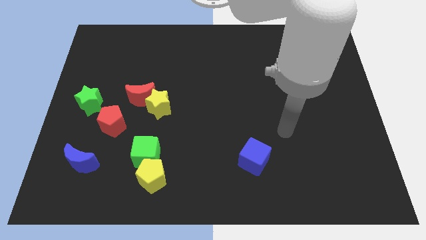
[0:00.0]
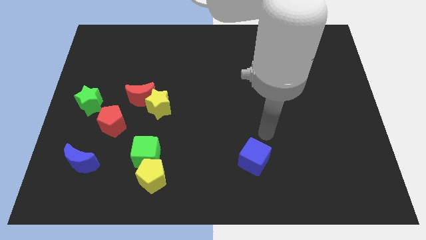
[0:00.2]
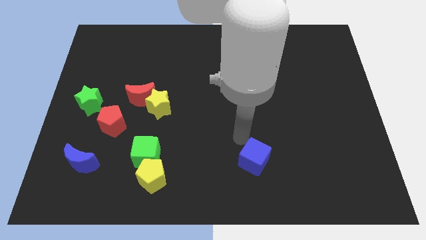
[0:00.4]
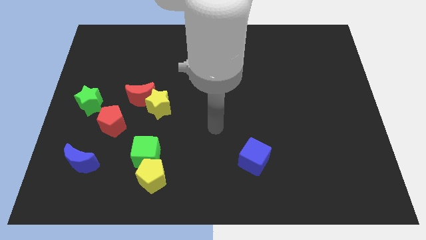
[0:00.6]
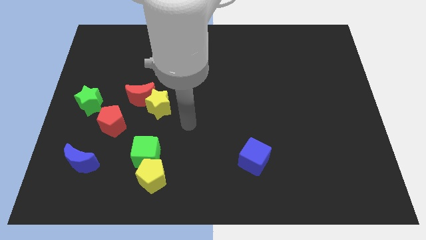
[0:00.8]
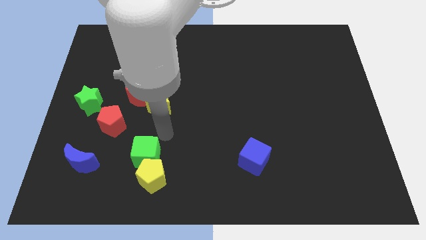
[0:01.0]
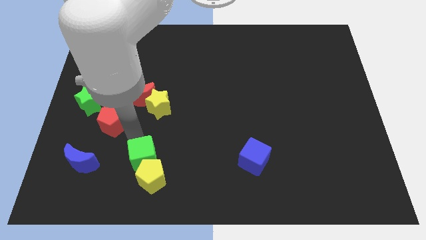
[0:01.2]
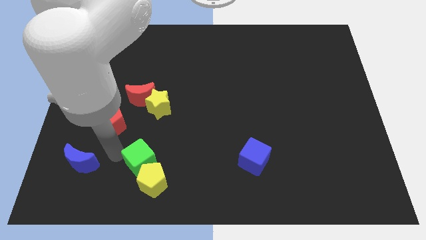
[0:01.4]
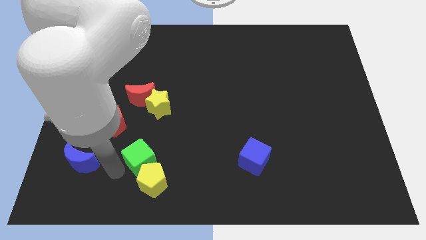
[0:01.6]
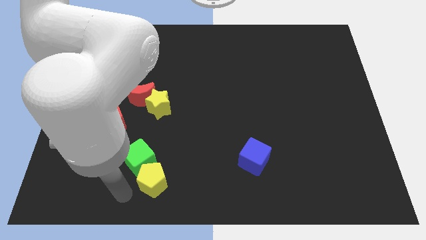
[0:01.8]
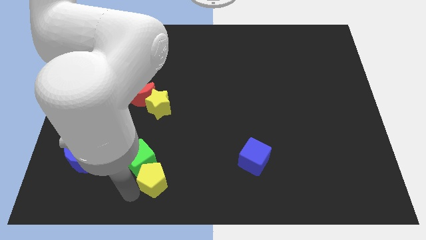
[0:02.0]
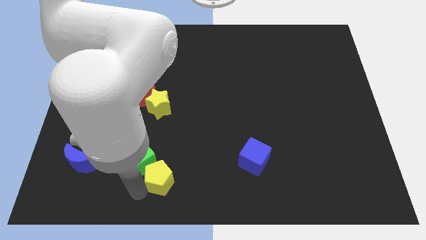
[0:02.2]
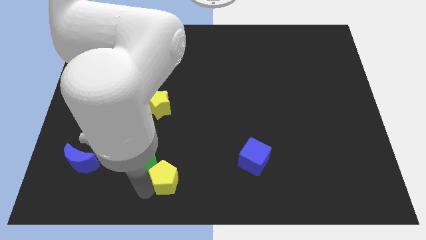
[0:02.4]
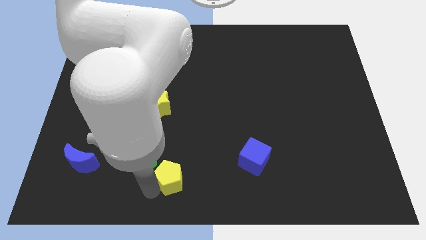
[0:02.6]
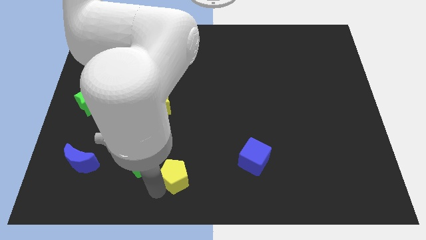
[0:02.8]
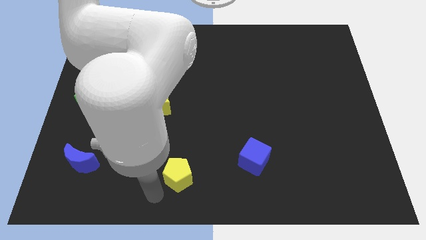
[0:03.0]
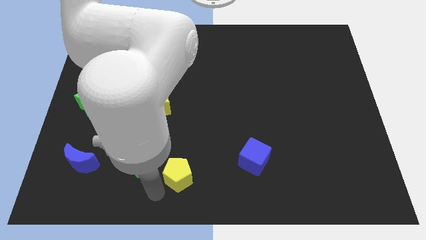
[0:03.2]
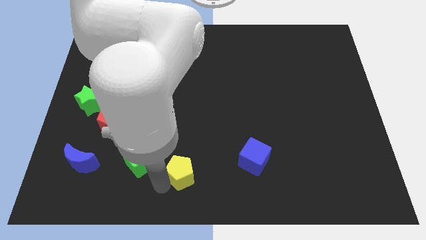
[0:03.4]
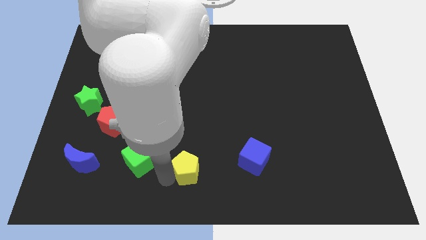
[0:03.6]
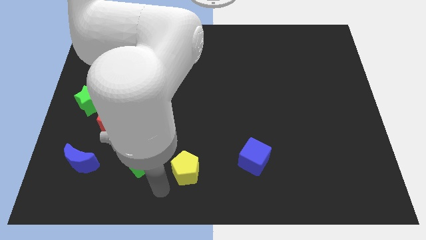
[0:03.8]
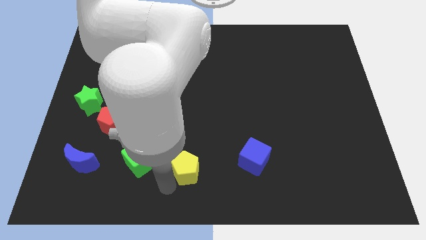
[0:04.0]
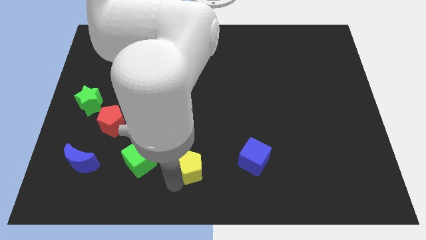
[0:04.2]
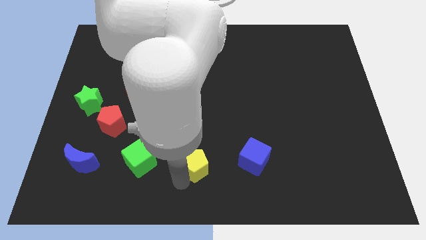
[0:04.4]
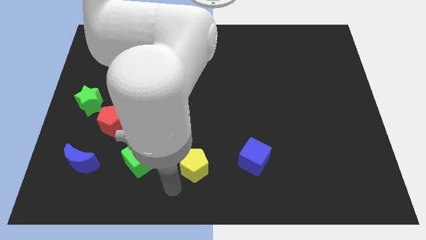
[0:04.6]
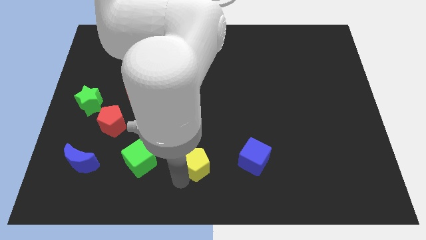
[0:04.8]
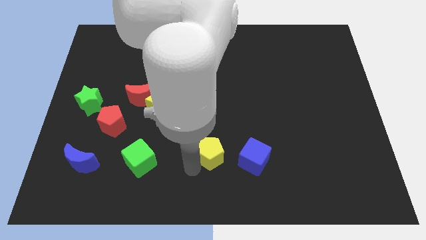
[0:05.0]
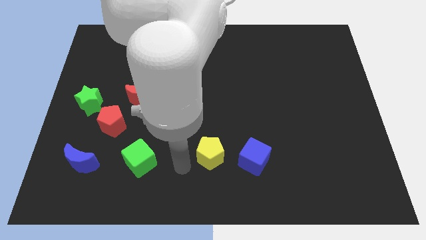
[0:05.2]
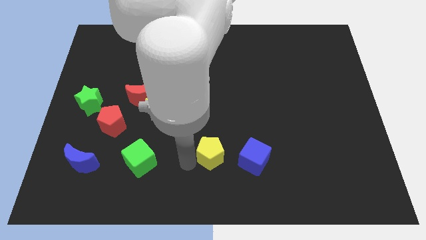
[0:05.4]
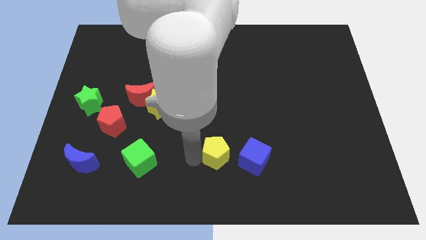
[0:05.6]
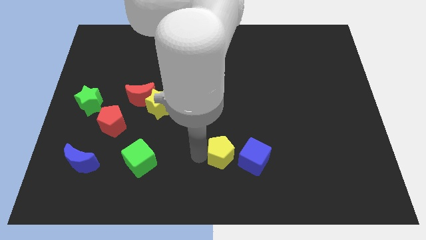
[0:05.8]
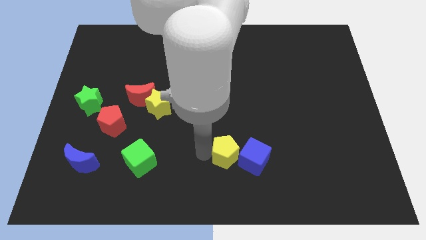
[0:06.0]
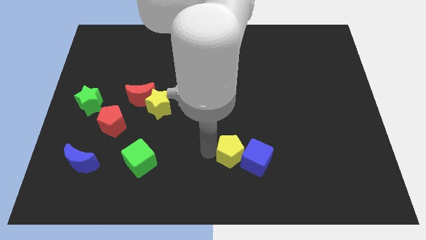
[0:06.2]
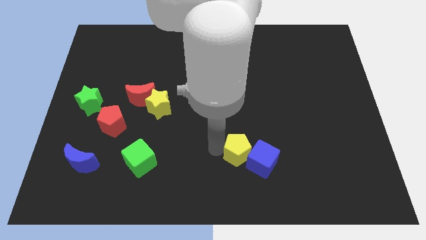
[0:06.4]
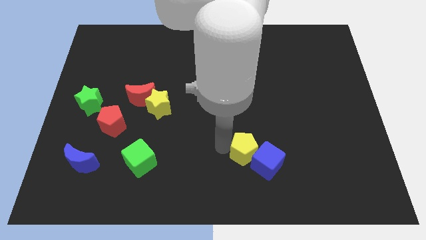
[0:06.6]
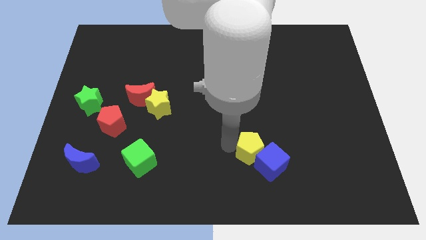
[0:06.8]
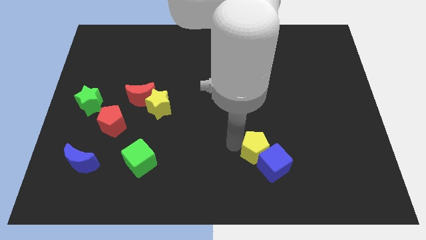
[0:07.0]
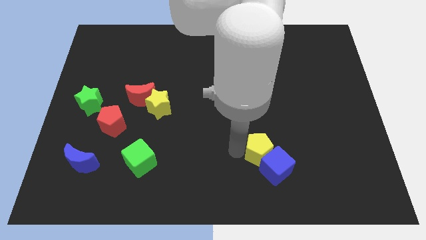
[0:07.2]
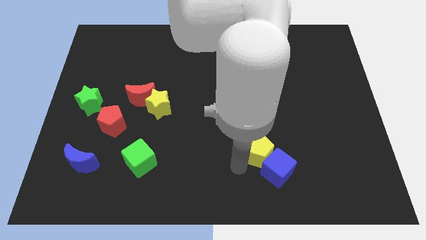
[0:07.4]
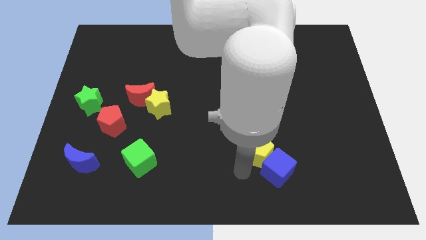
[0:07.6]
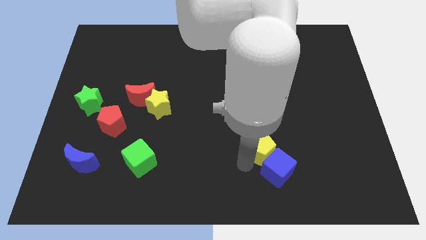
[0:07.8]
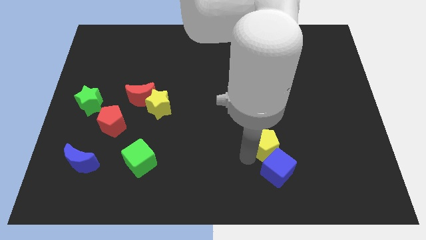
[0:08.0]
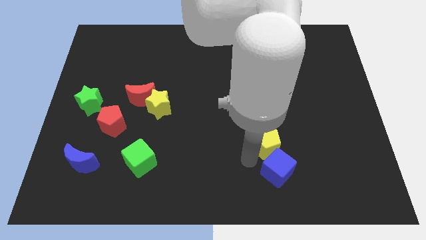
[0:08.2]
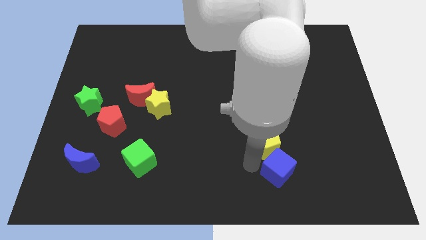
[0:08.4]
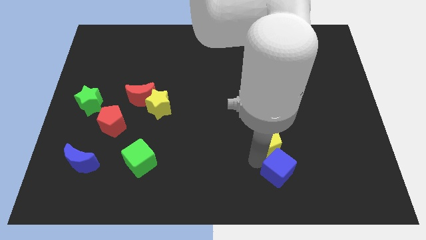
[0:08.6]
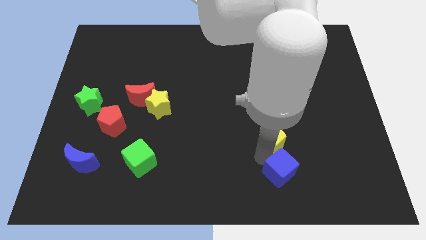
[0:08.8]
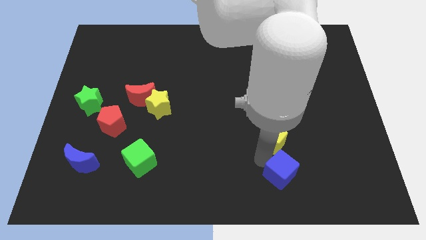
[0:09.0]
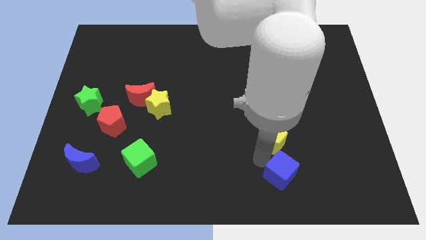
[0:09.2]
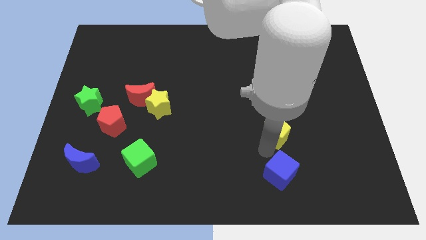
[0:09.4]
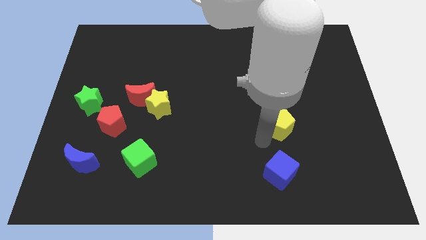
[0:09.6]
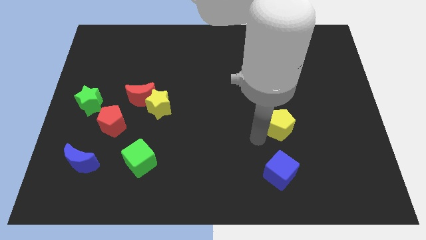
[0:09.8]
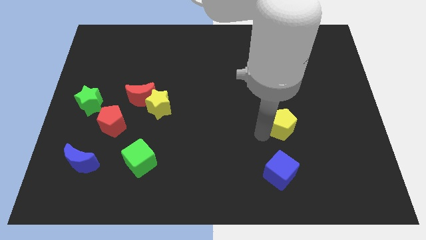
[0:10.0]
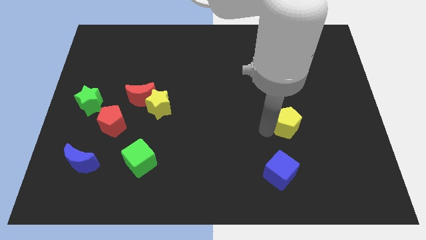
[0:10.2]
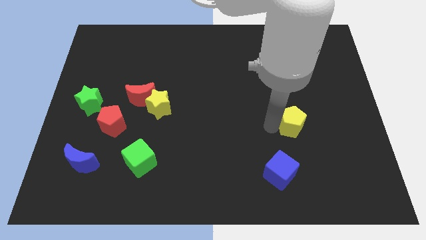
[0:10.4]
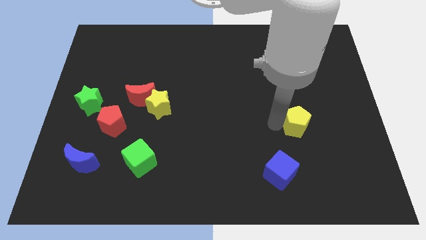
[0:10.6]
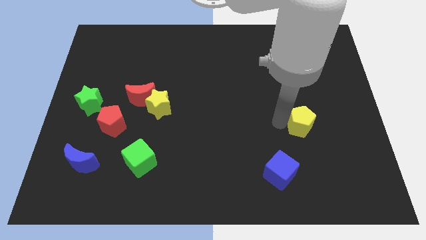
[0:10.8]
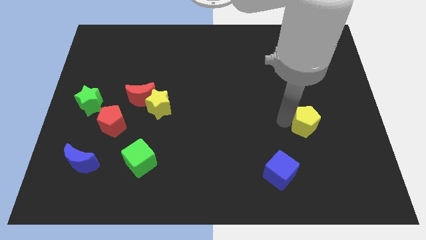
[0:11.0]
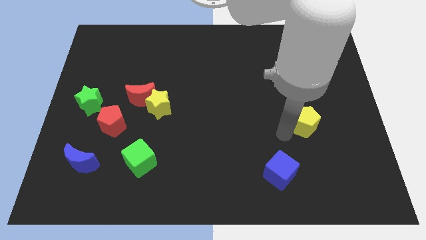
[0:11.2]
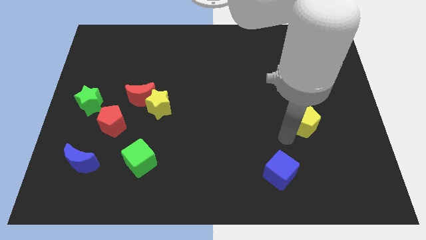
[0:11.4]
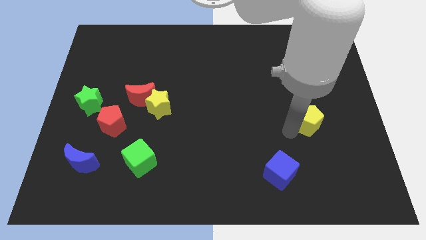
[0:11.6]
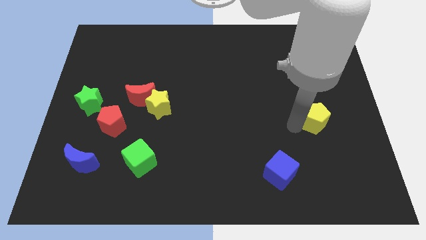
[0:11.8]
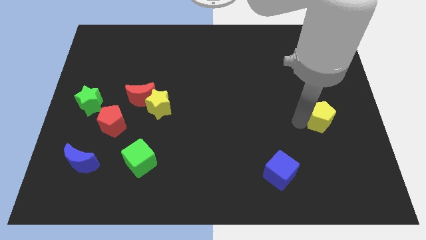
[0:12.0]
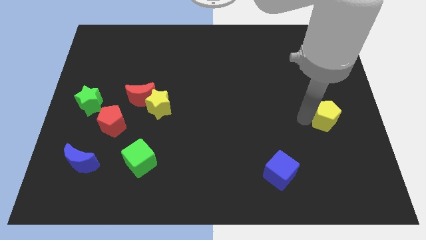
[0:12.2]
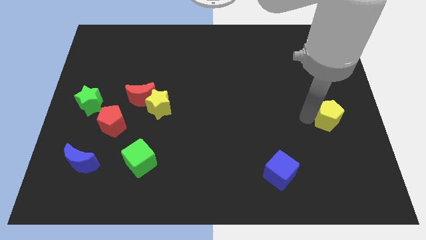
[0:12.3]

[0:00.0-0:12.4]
push the yellow pentagon to the right side of the board
